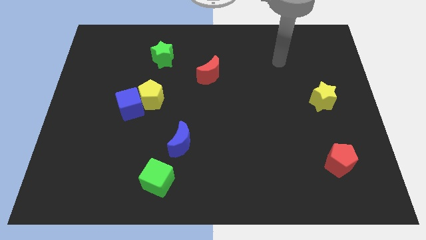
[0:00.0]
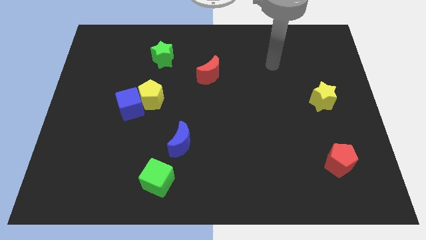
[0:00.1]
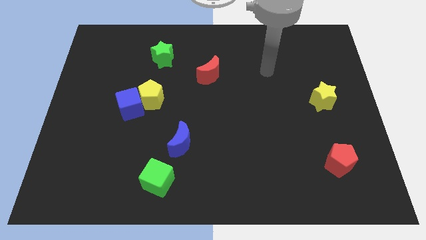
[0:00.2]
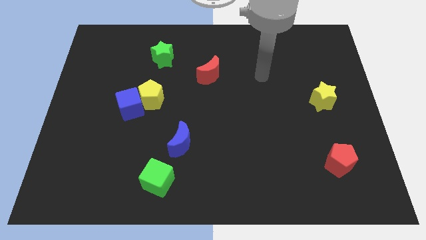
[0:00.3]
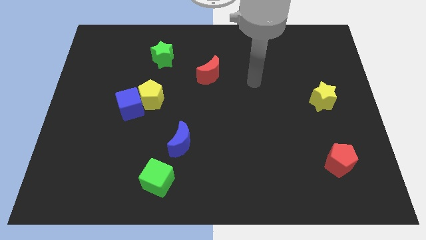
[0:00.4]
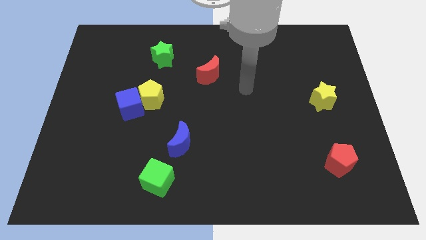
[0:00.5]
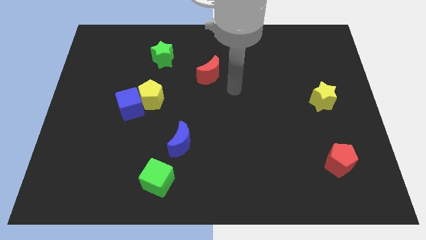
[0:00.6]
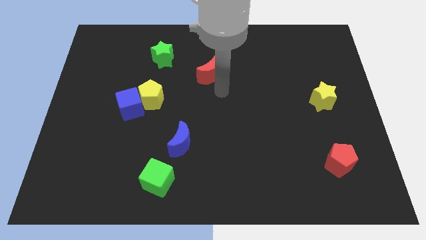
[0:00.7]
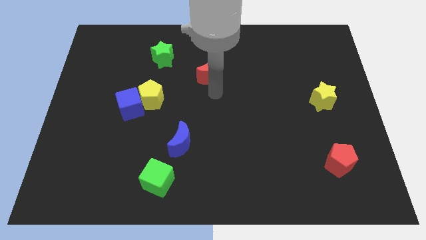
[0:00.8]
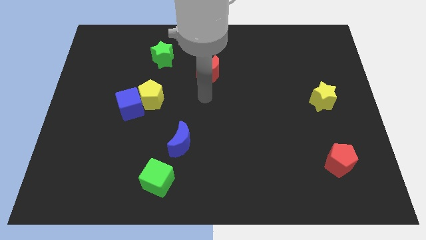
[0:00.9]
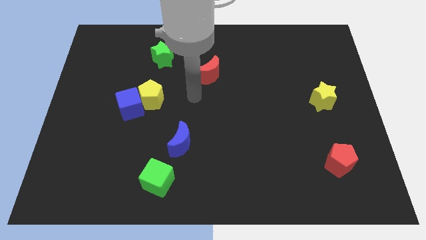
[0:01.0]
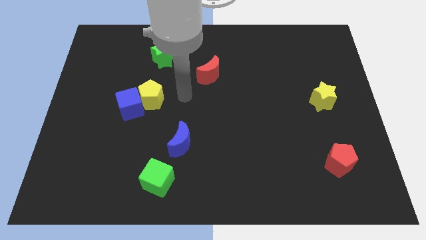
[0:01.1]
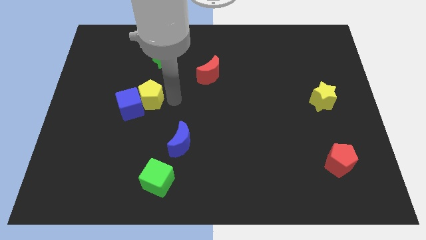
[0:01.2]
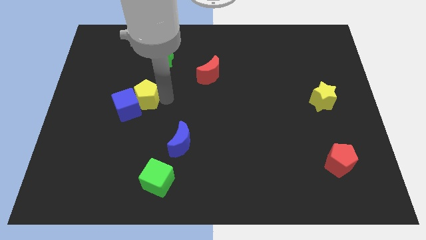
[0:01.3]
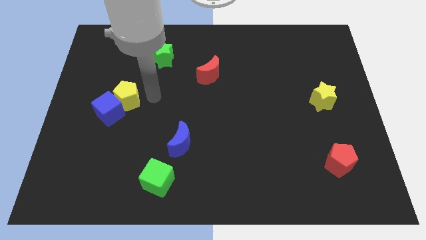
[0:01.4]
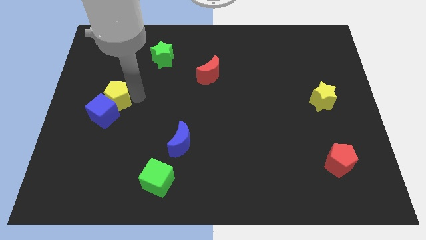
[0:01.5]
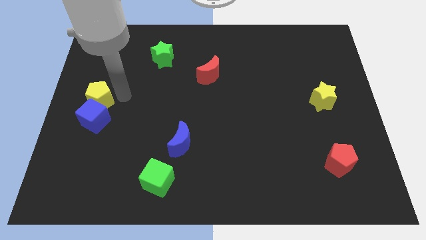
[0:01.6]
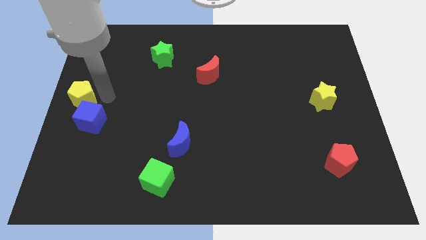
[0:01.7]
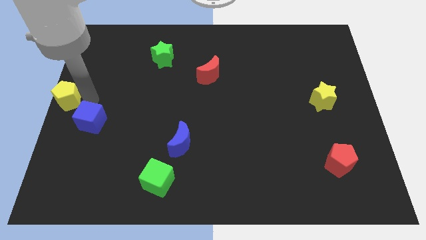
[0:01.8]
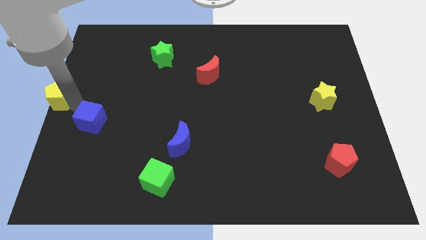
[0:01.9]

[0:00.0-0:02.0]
pull the blue cube apart from the yellow pentagon

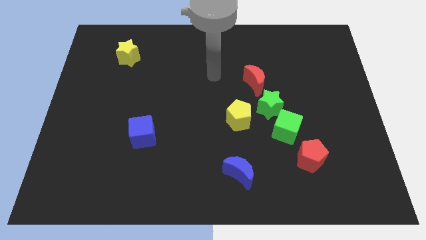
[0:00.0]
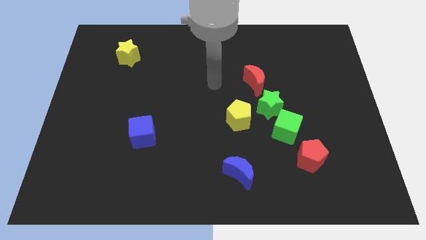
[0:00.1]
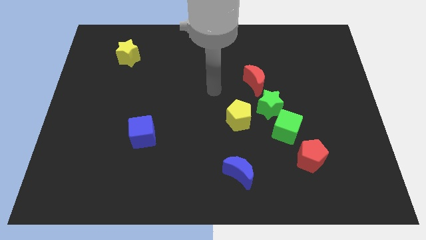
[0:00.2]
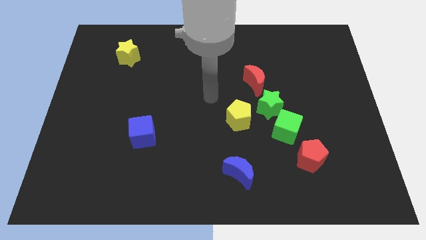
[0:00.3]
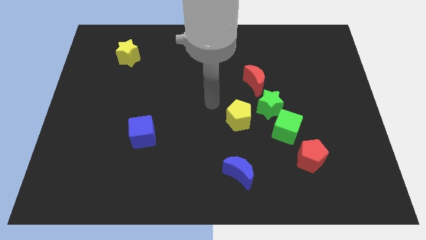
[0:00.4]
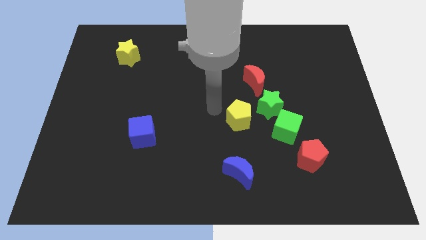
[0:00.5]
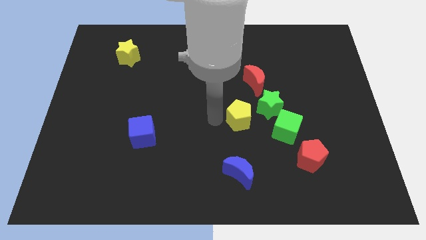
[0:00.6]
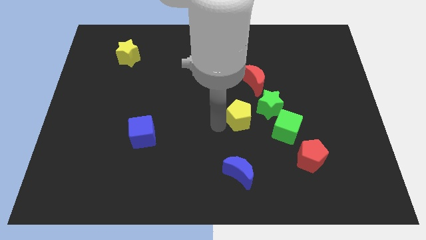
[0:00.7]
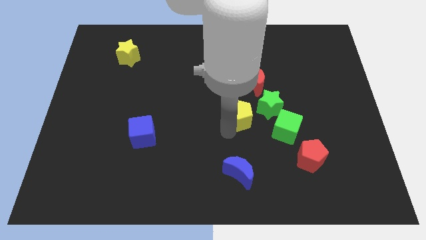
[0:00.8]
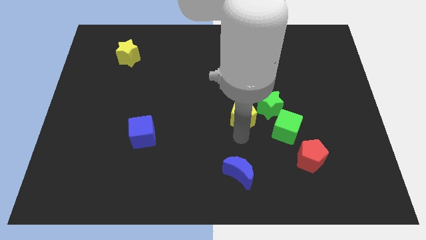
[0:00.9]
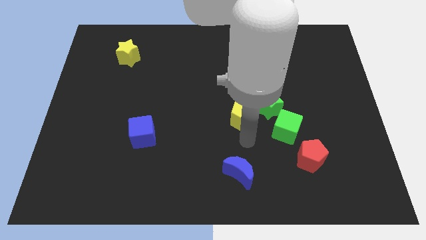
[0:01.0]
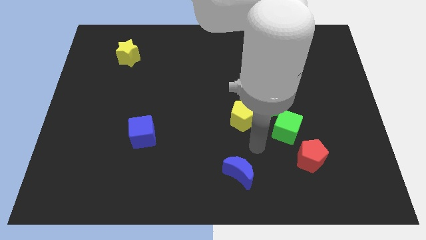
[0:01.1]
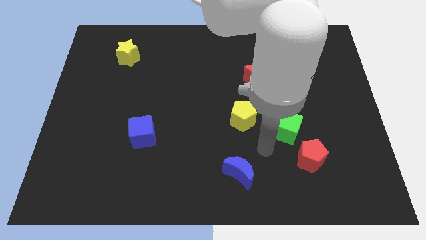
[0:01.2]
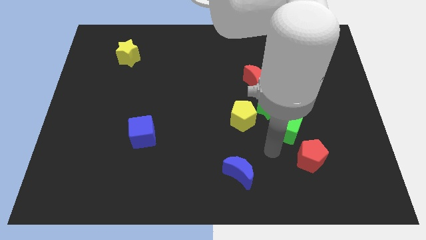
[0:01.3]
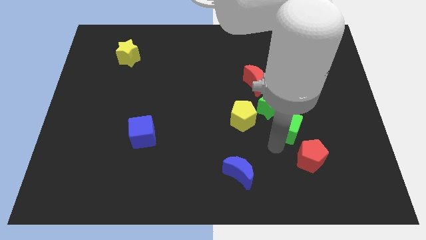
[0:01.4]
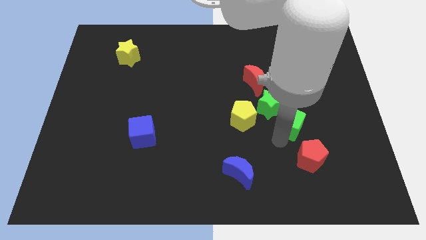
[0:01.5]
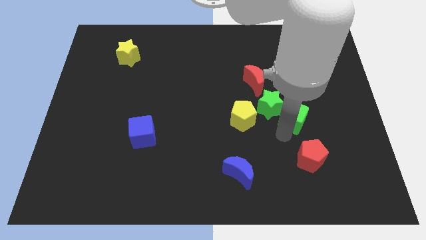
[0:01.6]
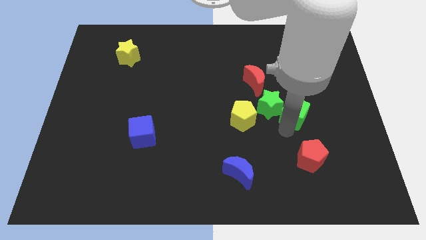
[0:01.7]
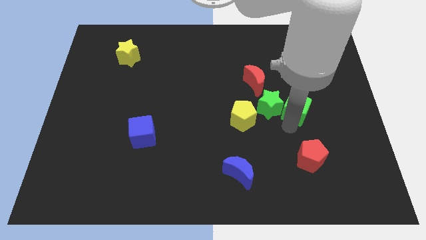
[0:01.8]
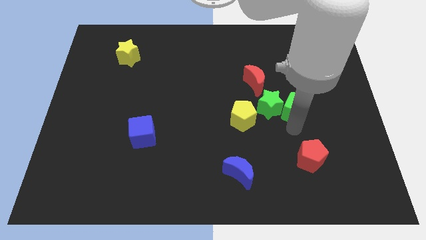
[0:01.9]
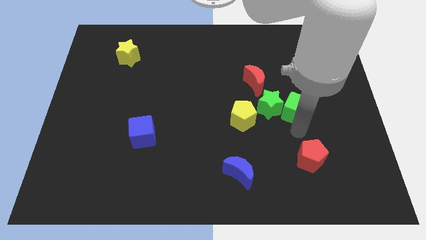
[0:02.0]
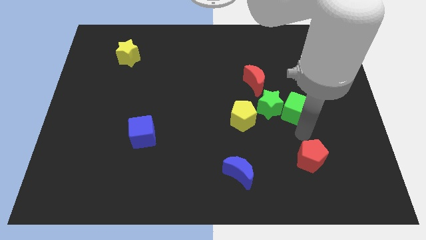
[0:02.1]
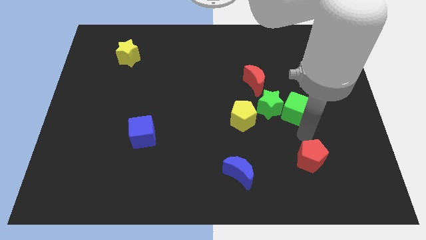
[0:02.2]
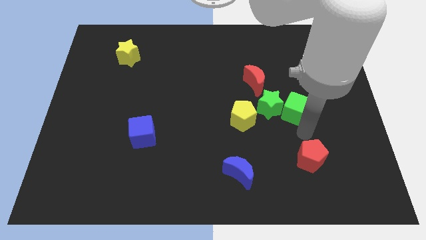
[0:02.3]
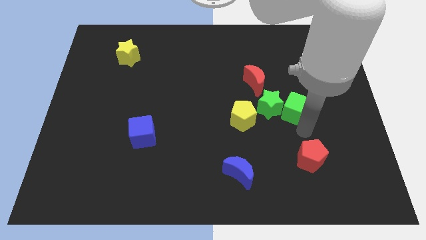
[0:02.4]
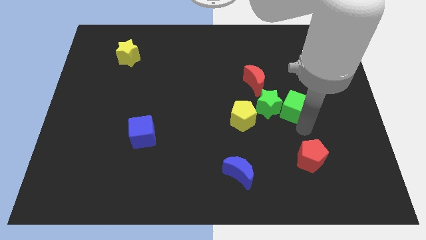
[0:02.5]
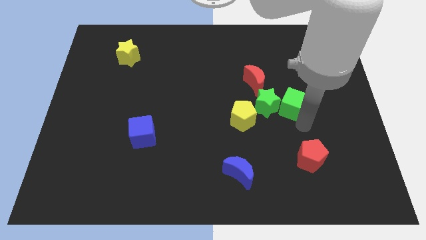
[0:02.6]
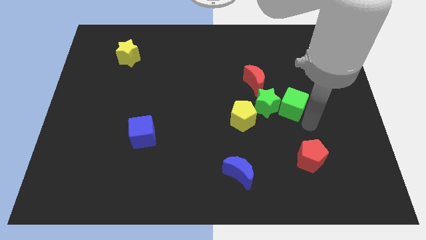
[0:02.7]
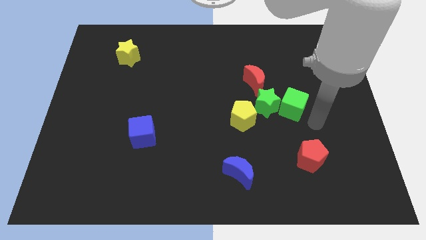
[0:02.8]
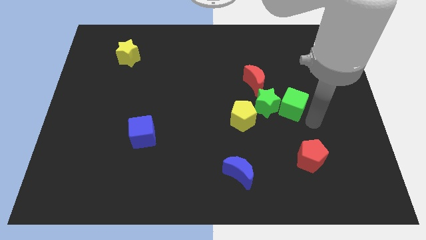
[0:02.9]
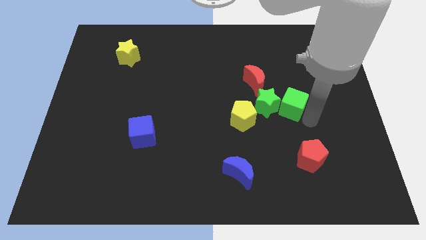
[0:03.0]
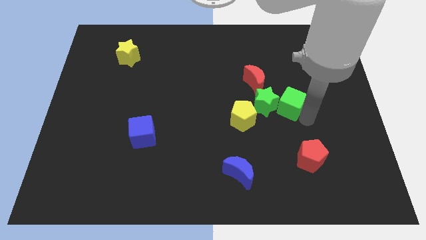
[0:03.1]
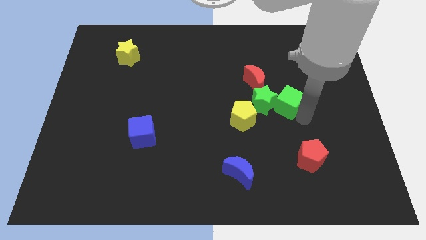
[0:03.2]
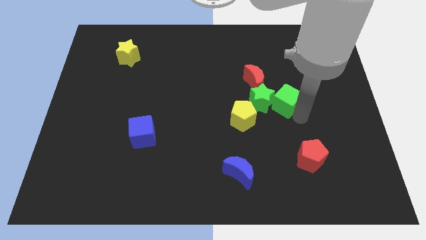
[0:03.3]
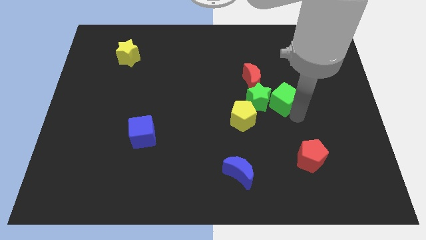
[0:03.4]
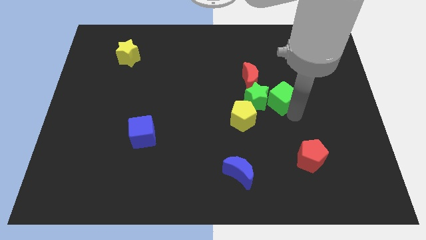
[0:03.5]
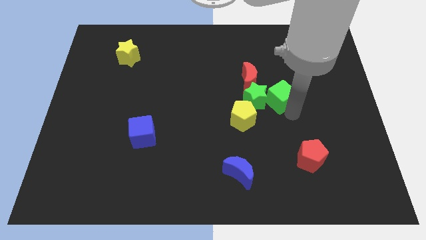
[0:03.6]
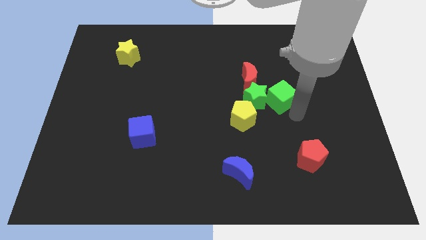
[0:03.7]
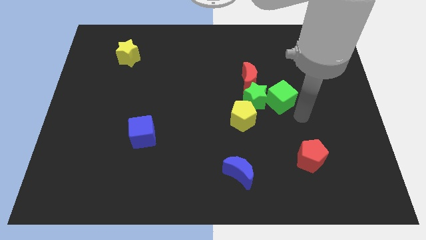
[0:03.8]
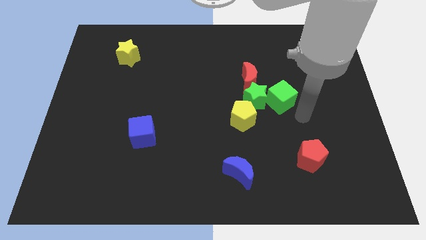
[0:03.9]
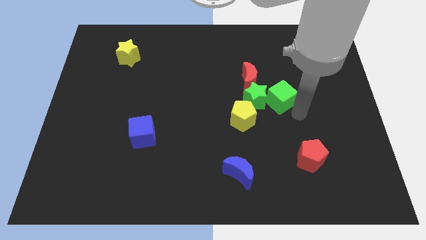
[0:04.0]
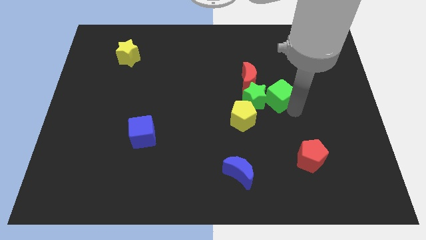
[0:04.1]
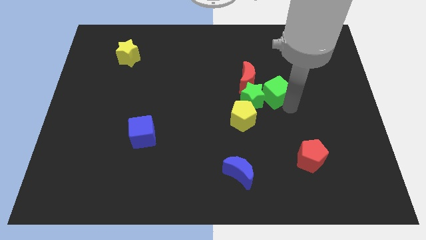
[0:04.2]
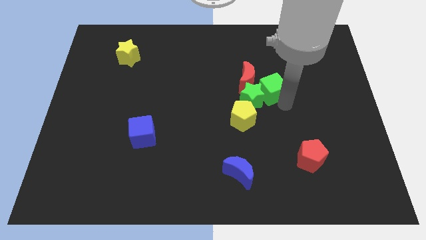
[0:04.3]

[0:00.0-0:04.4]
move the green cube away from the green star and red pentagon

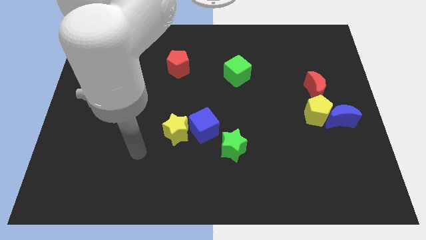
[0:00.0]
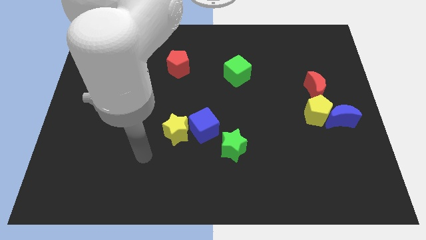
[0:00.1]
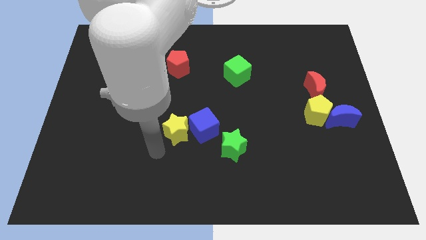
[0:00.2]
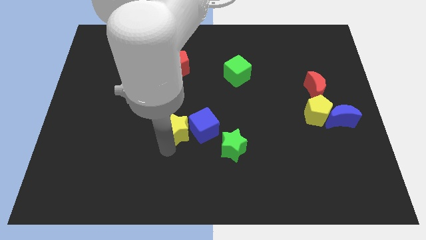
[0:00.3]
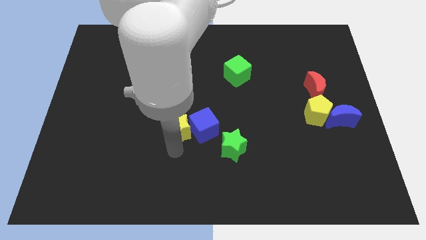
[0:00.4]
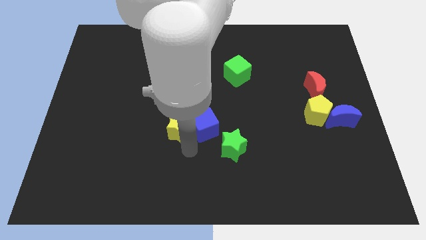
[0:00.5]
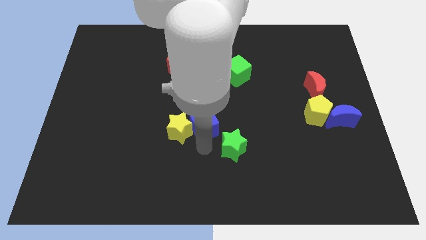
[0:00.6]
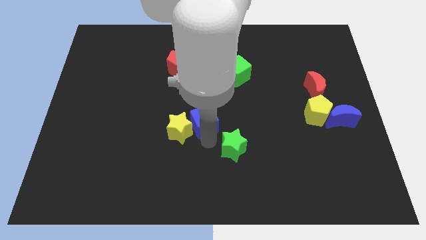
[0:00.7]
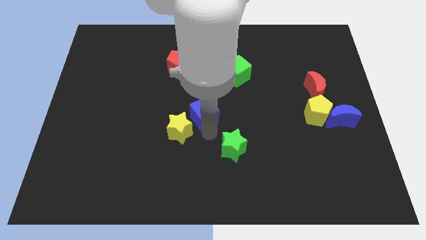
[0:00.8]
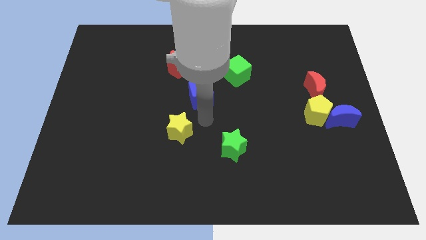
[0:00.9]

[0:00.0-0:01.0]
separate the yellow star from the blue cube

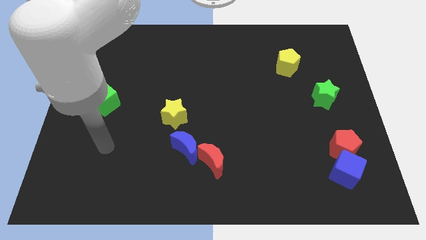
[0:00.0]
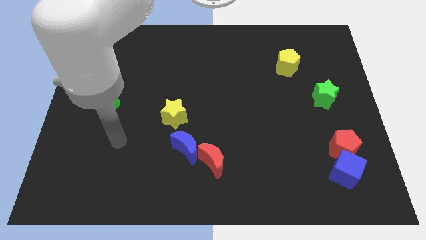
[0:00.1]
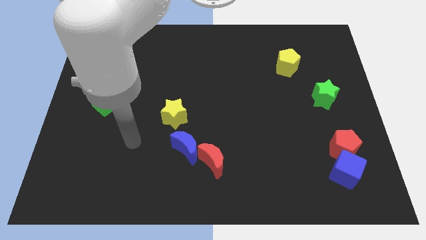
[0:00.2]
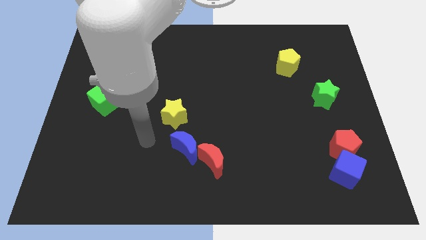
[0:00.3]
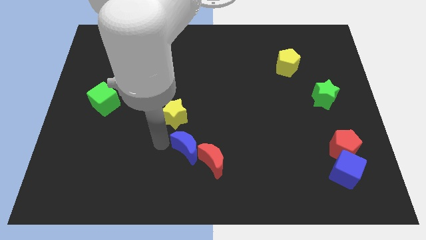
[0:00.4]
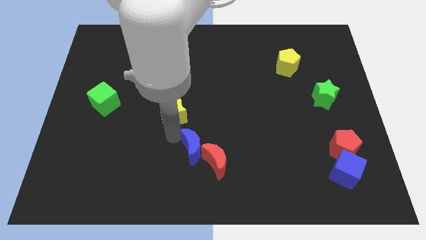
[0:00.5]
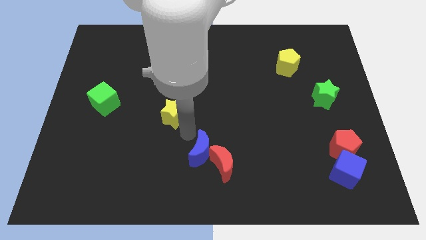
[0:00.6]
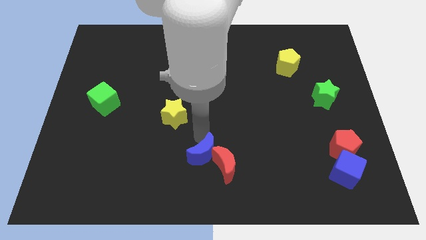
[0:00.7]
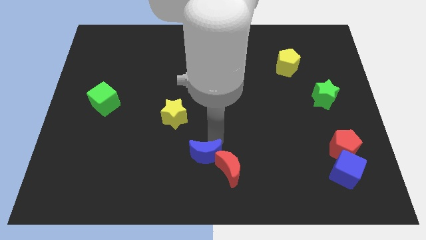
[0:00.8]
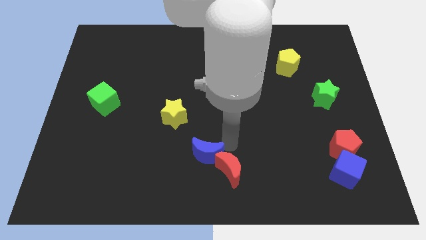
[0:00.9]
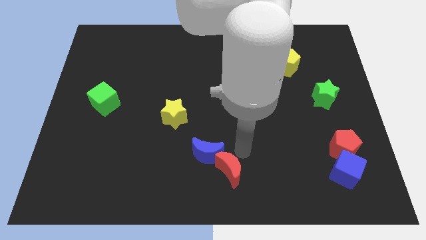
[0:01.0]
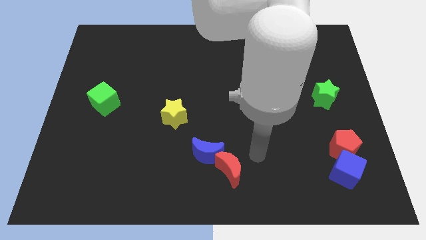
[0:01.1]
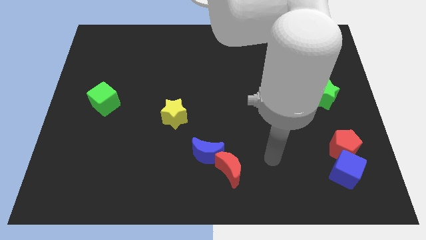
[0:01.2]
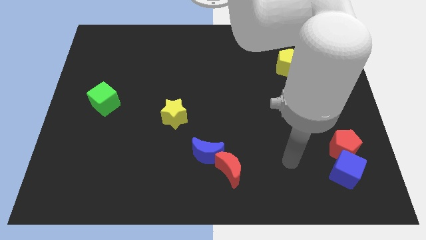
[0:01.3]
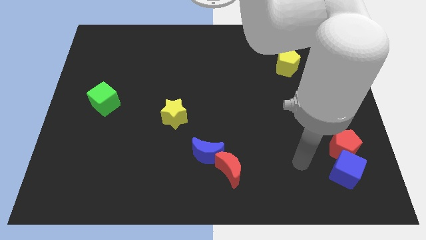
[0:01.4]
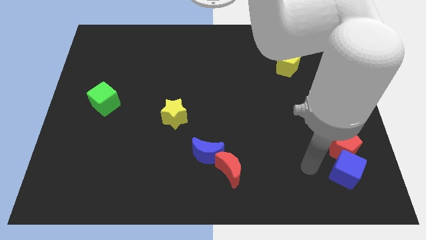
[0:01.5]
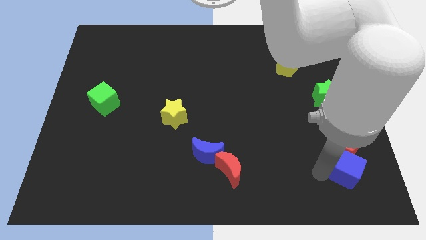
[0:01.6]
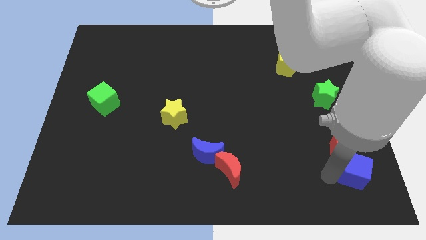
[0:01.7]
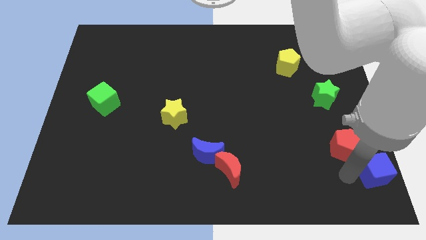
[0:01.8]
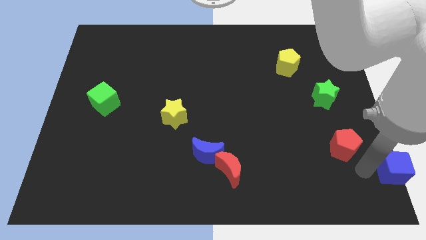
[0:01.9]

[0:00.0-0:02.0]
separate the red pentagon from the blue cube
